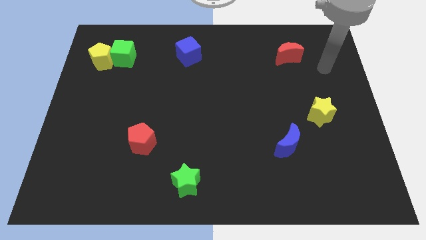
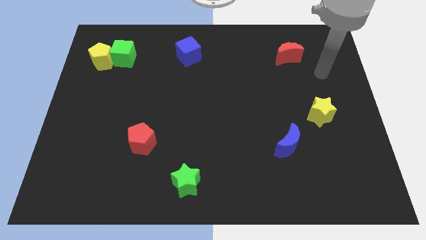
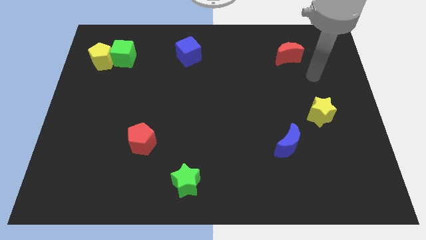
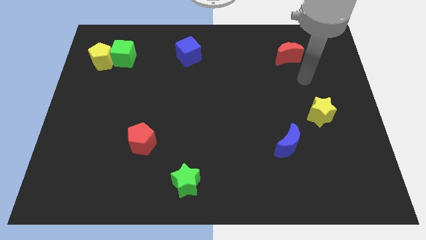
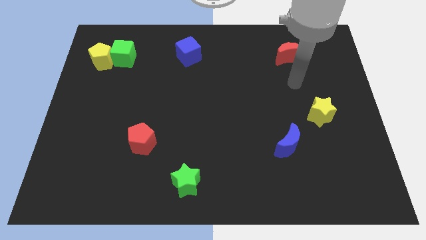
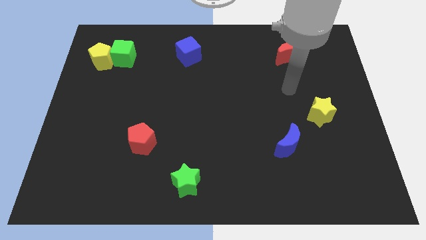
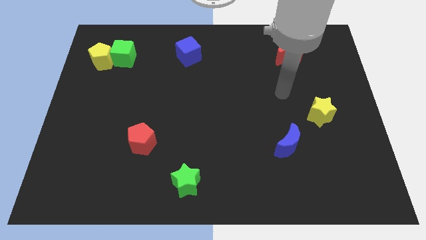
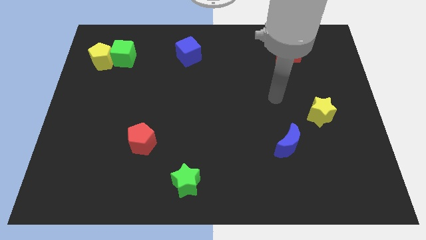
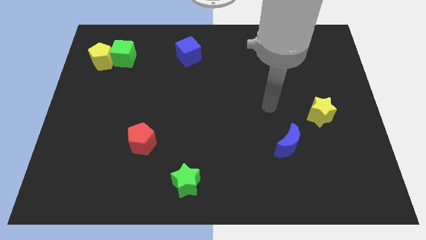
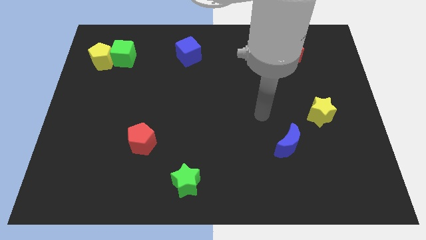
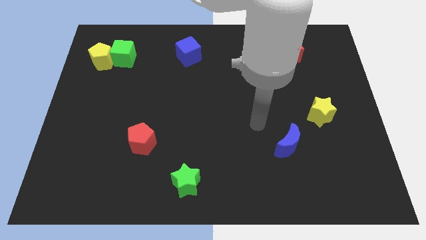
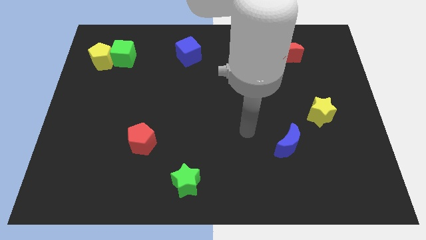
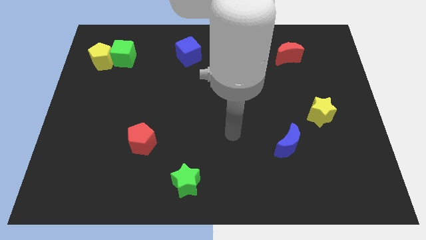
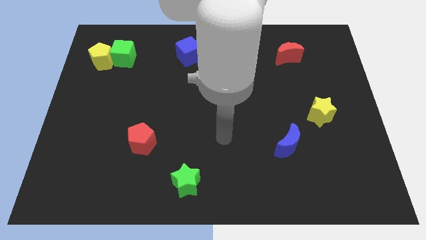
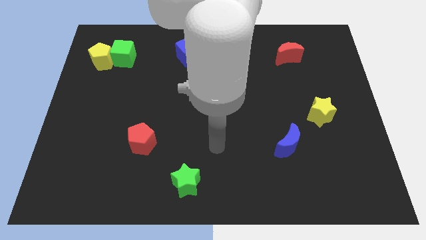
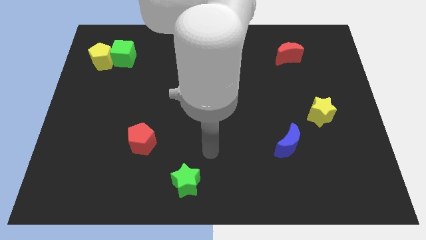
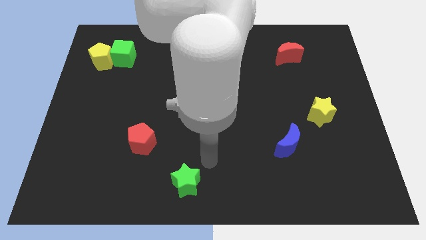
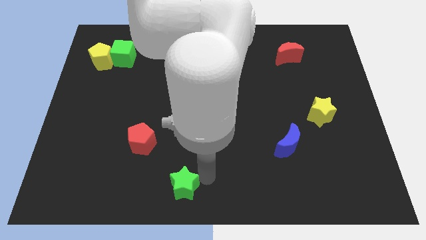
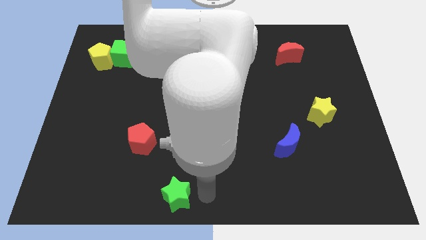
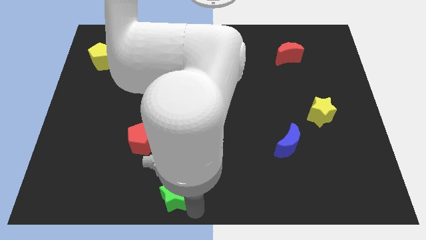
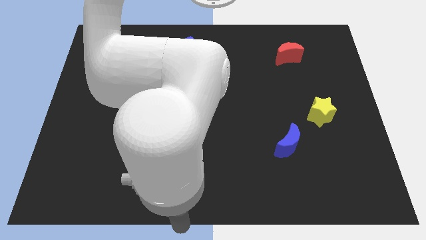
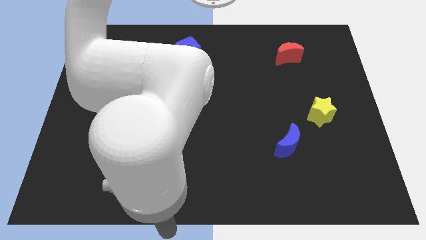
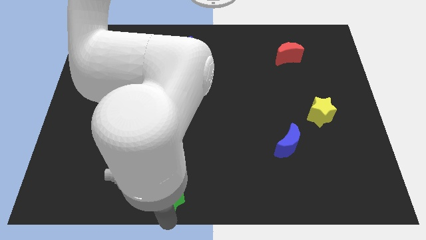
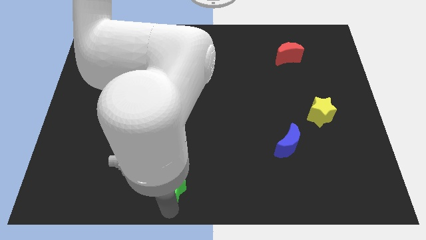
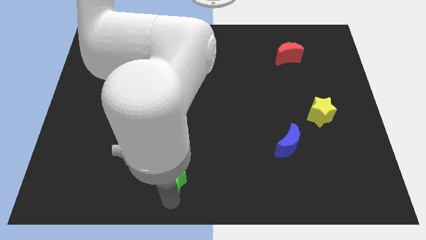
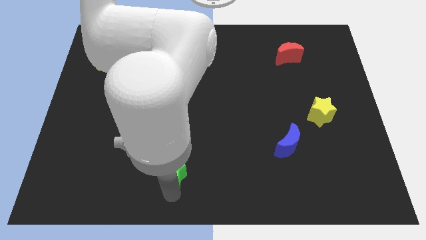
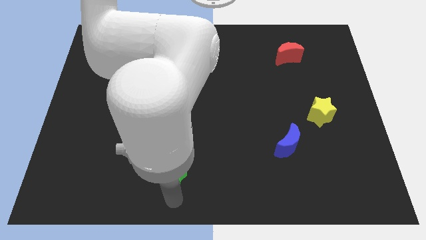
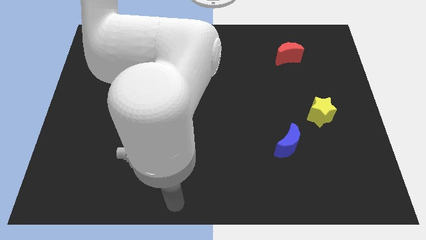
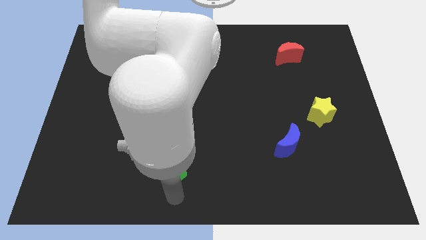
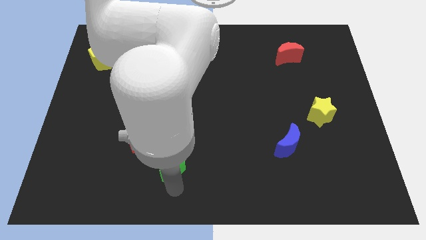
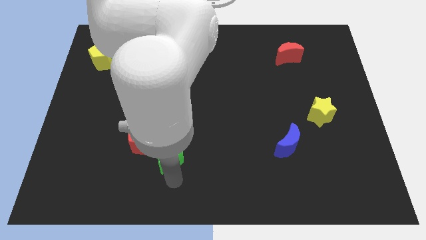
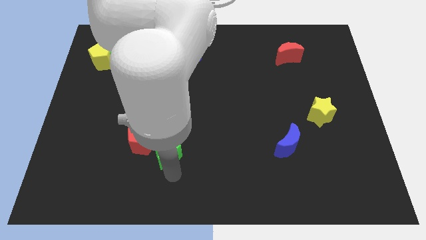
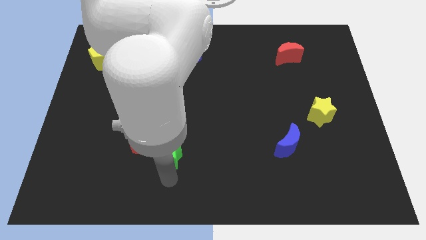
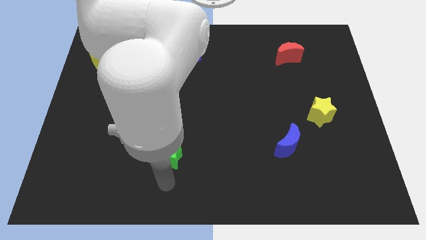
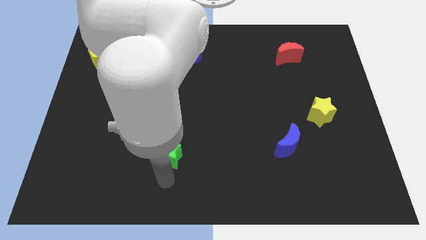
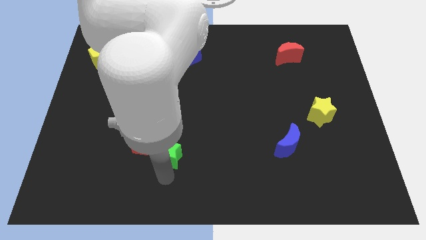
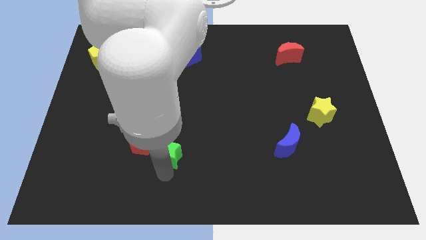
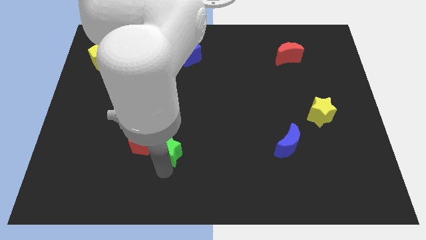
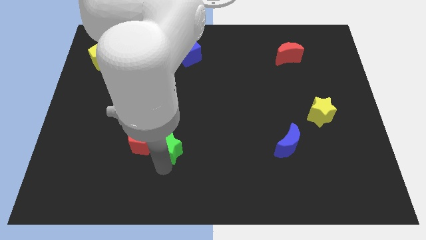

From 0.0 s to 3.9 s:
push the green star a little bit upwards

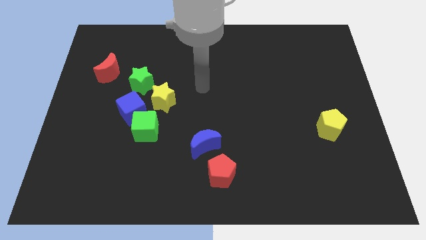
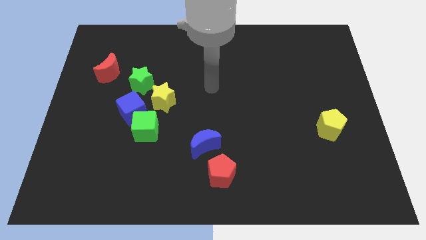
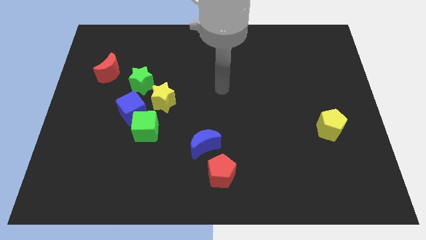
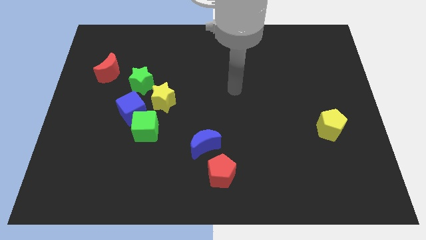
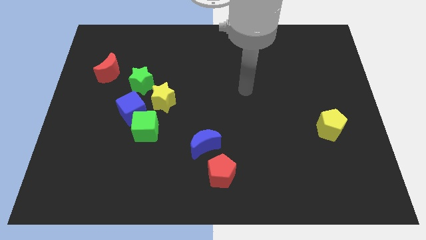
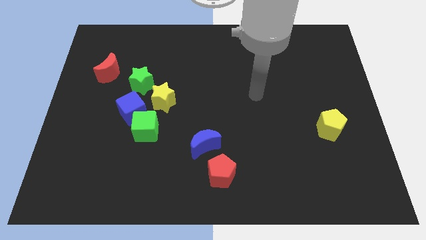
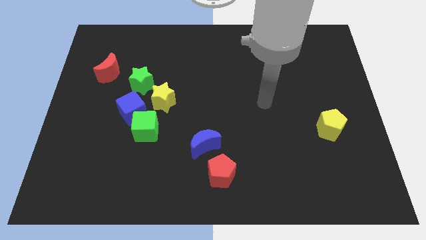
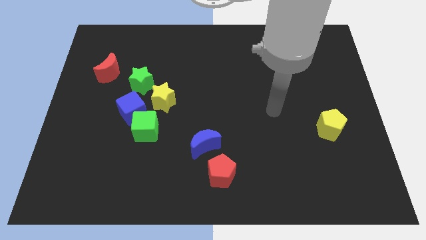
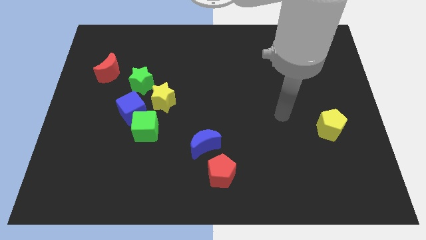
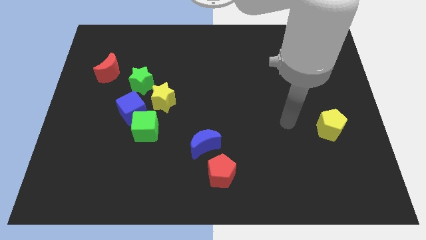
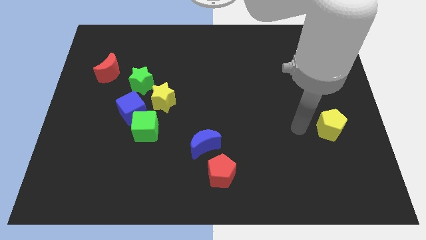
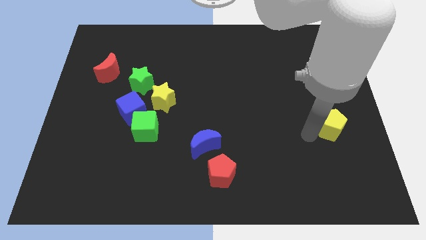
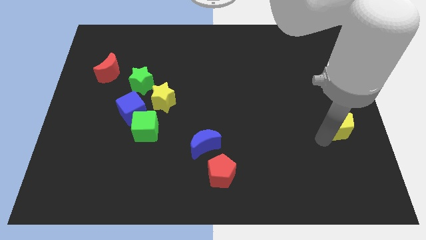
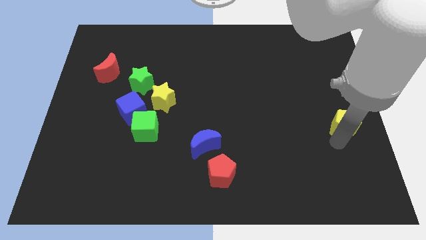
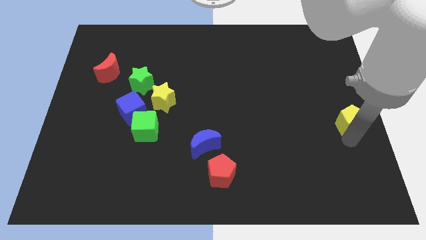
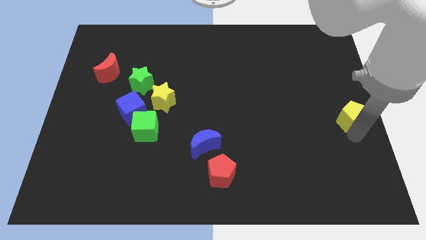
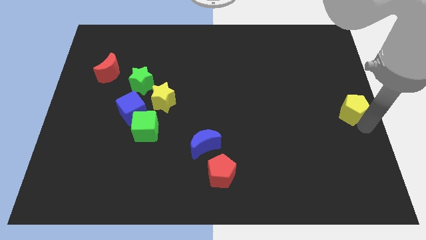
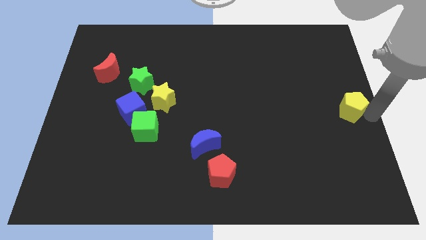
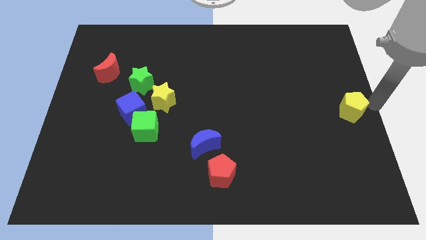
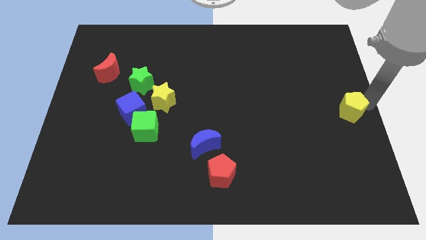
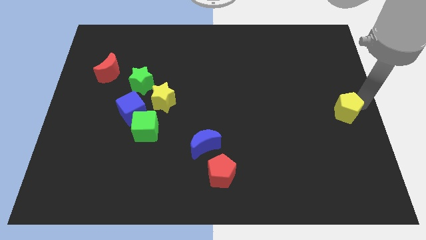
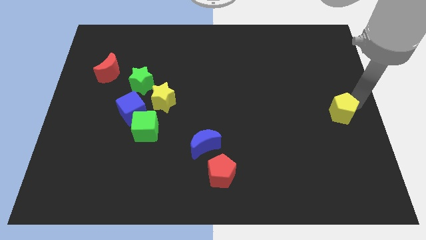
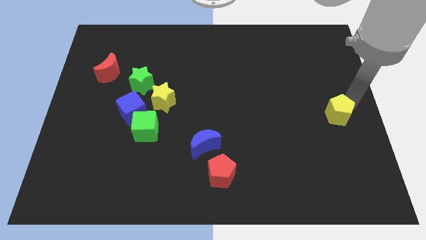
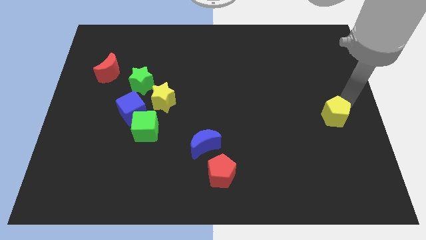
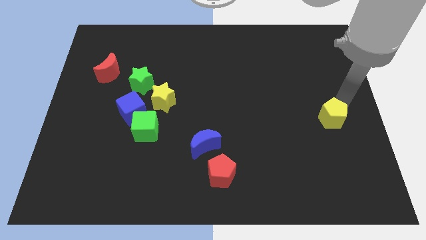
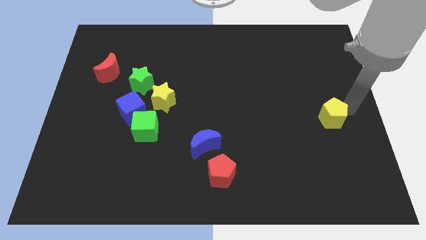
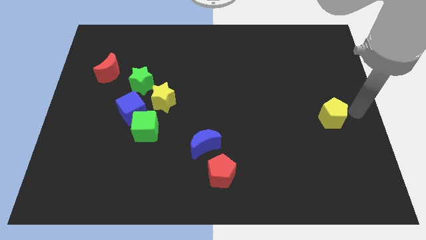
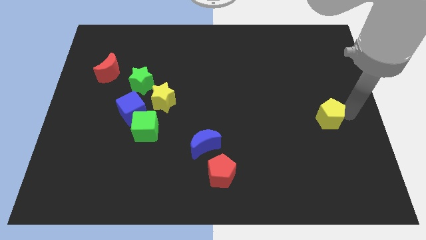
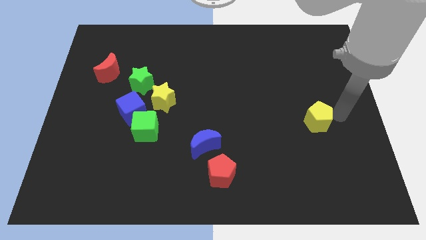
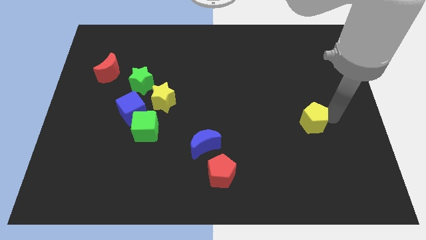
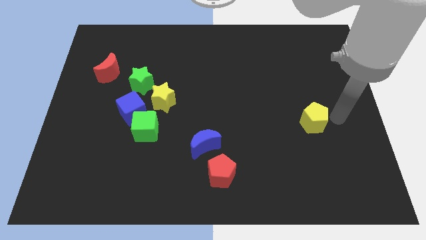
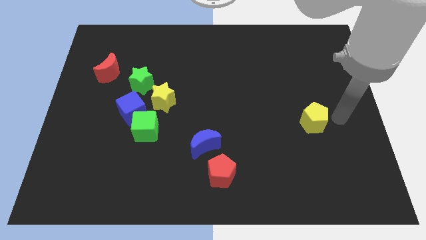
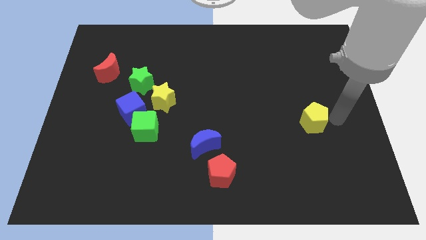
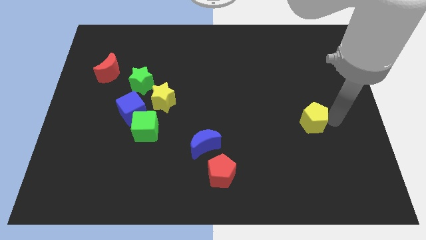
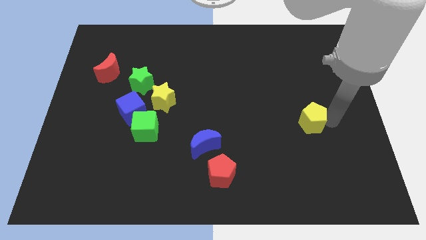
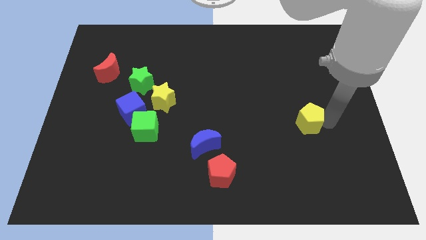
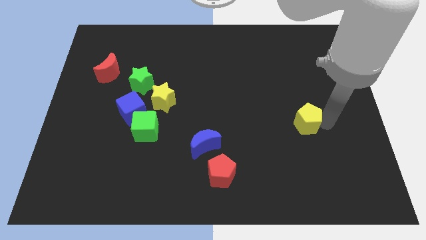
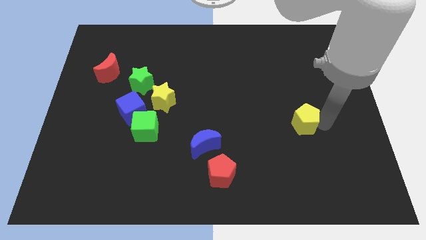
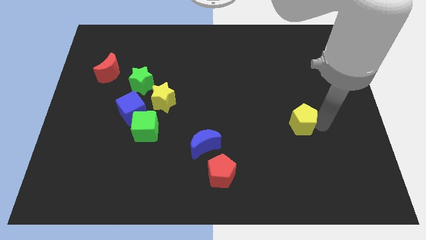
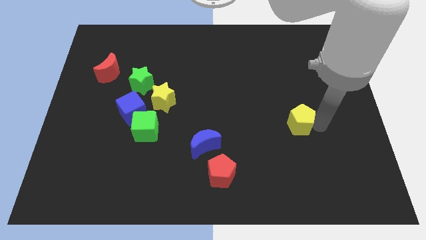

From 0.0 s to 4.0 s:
move the yellow pentagon to the left a little
